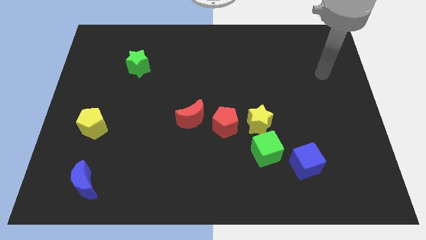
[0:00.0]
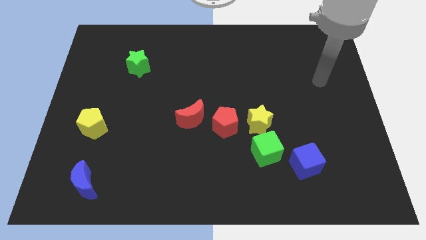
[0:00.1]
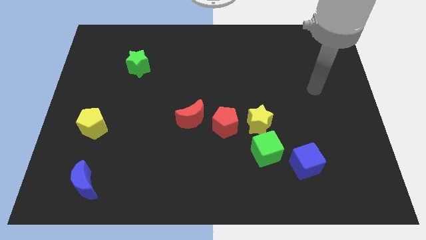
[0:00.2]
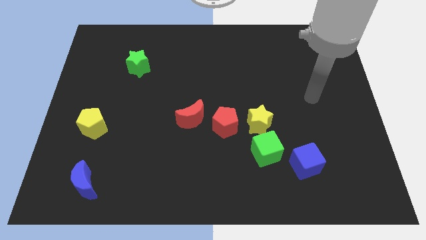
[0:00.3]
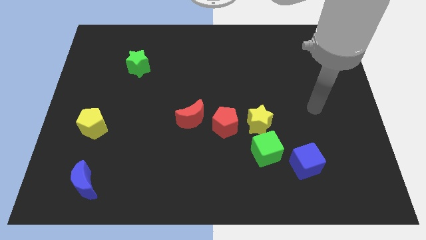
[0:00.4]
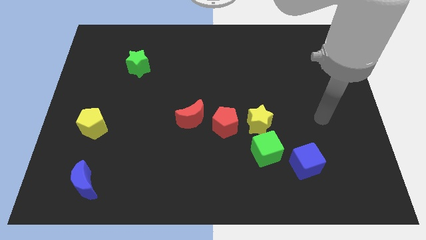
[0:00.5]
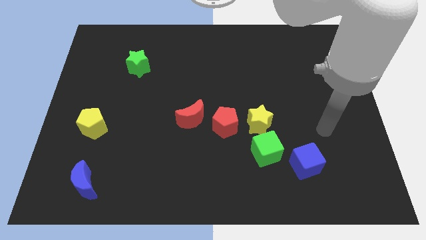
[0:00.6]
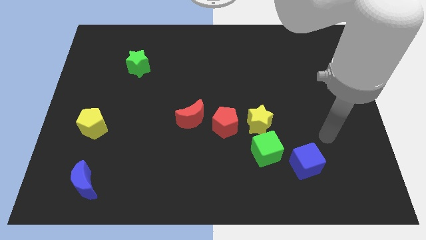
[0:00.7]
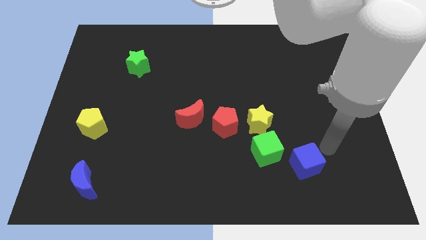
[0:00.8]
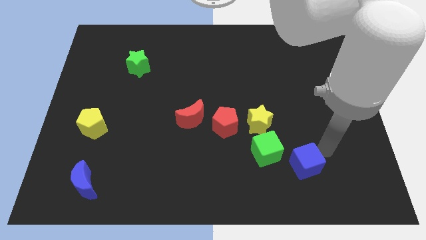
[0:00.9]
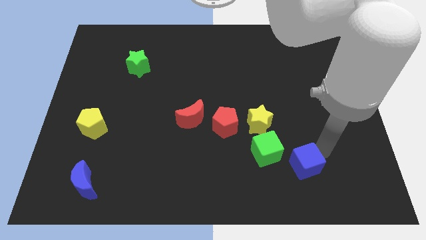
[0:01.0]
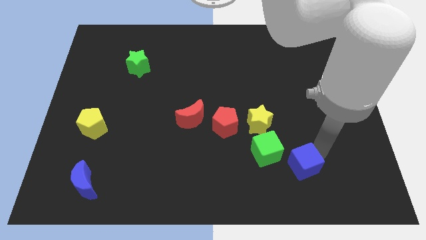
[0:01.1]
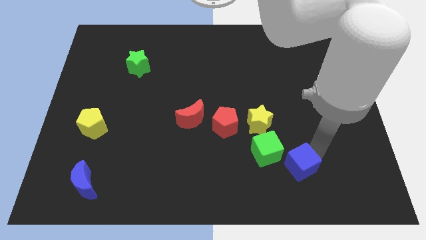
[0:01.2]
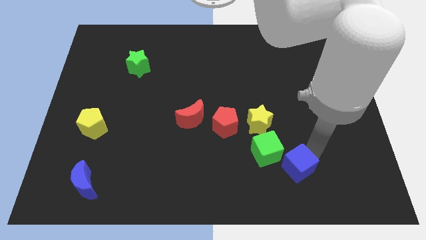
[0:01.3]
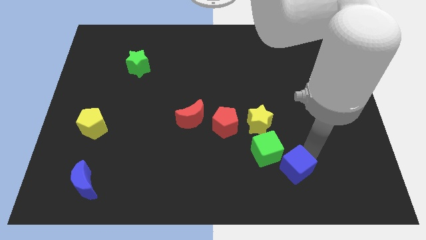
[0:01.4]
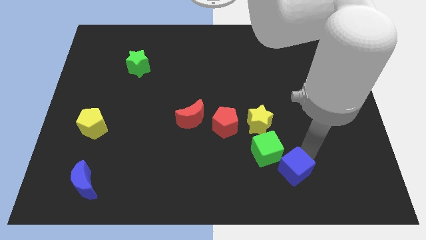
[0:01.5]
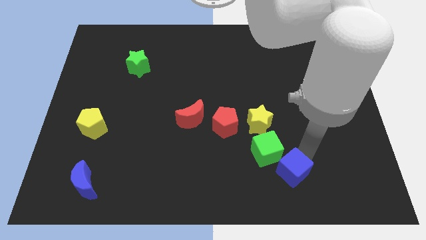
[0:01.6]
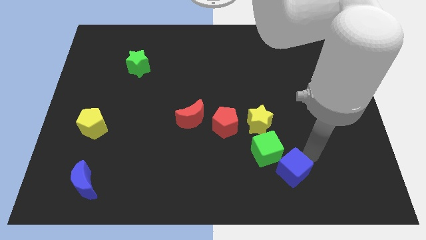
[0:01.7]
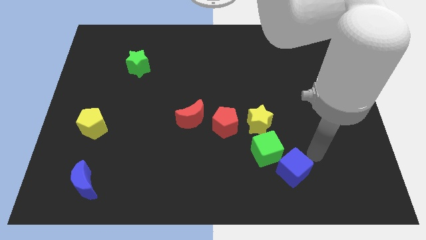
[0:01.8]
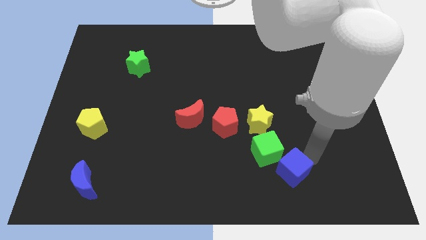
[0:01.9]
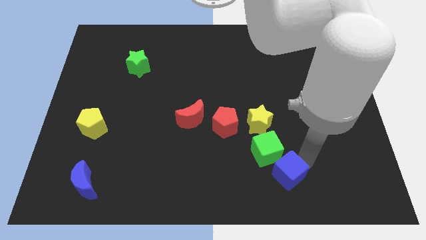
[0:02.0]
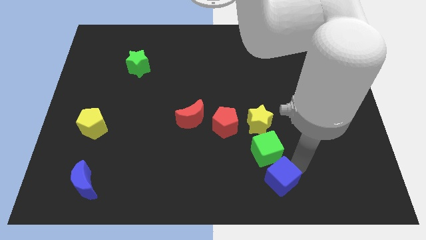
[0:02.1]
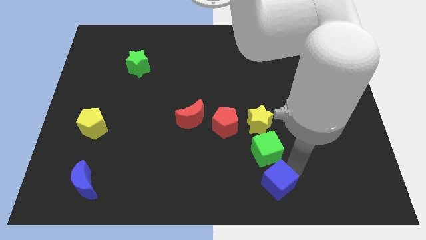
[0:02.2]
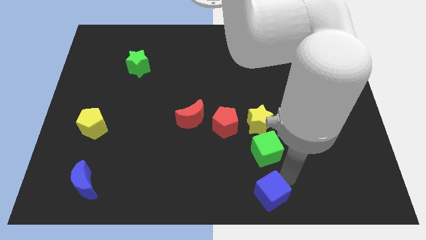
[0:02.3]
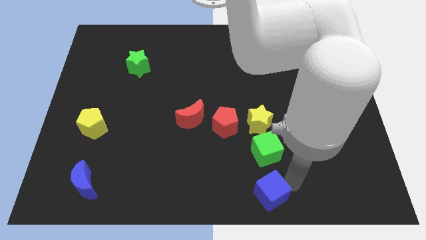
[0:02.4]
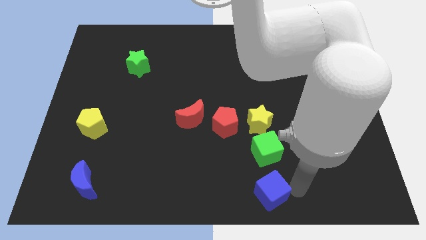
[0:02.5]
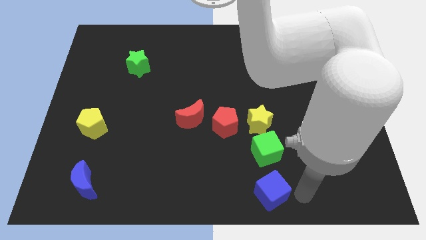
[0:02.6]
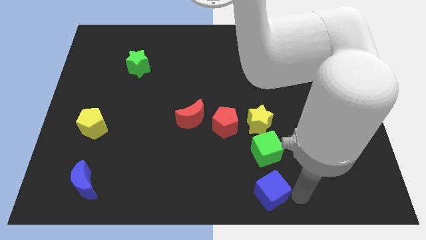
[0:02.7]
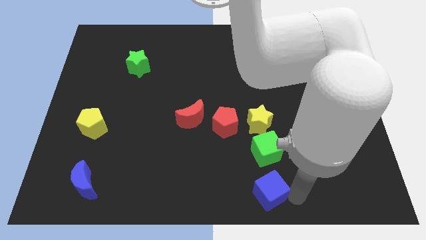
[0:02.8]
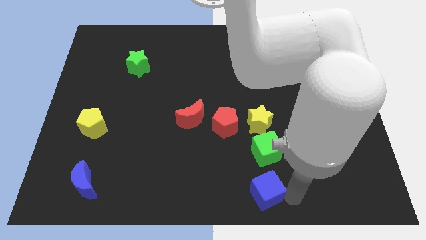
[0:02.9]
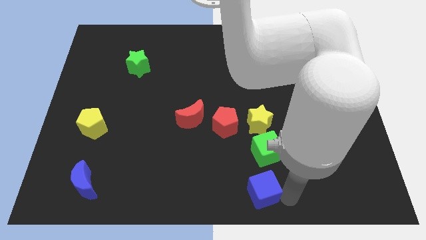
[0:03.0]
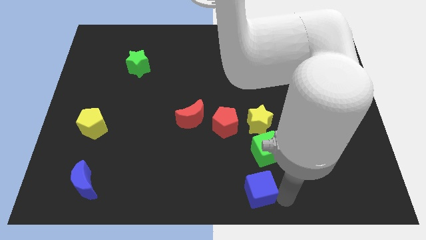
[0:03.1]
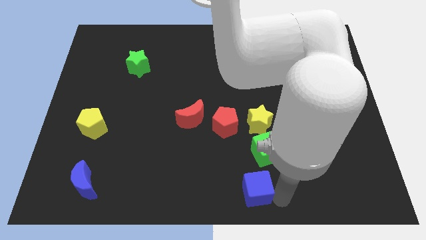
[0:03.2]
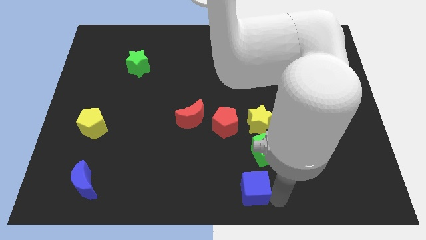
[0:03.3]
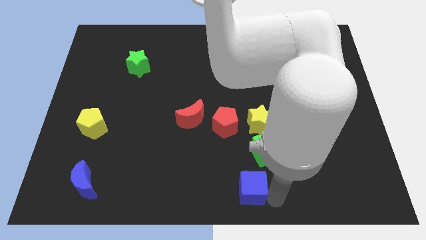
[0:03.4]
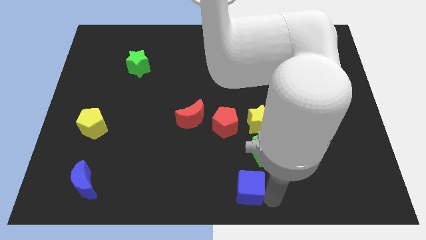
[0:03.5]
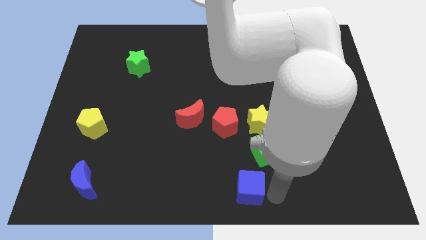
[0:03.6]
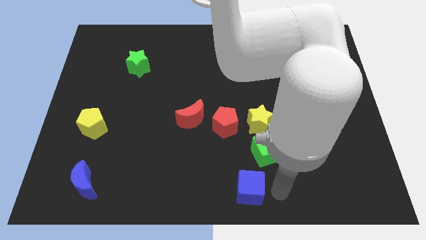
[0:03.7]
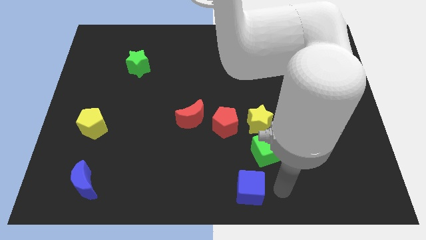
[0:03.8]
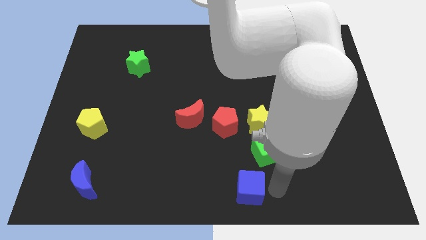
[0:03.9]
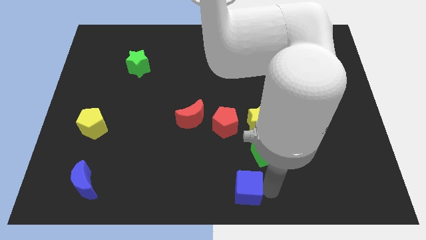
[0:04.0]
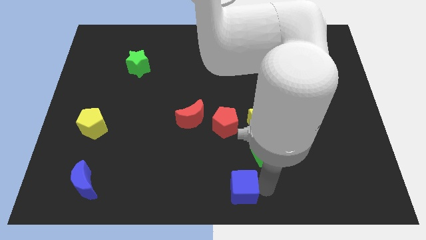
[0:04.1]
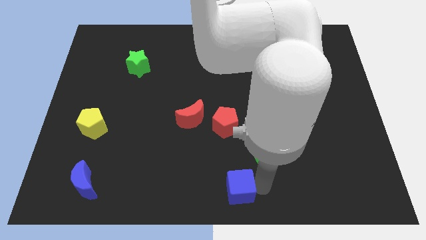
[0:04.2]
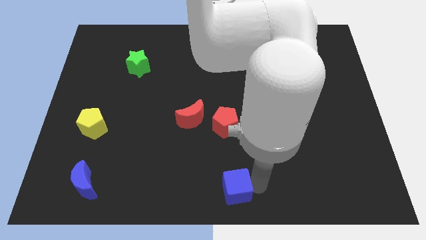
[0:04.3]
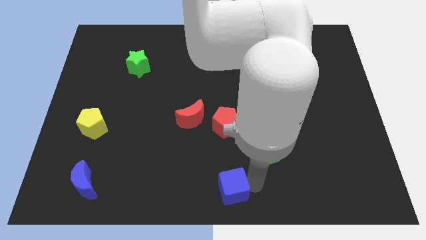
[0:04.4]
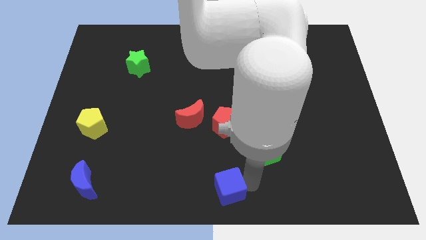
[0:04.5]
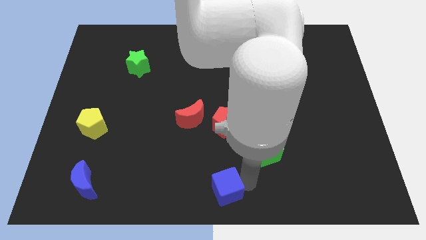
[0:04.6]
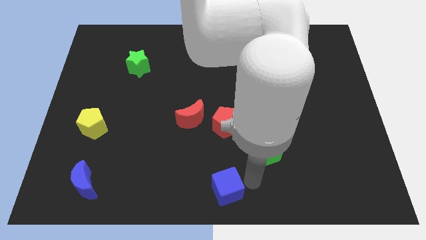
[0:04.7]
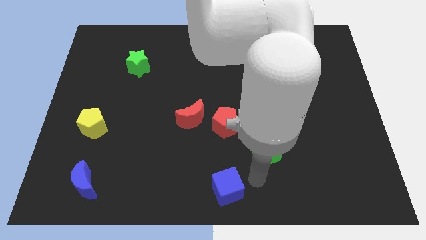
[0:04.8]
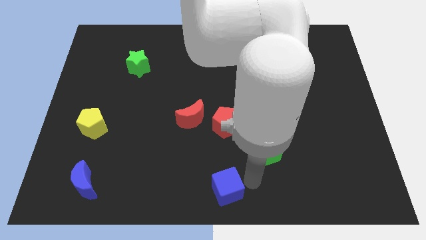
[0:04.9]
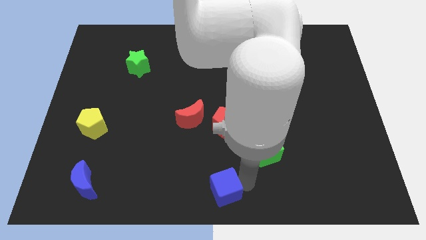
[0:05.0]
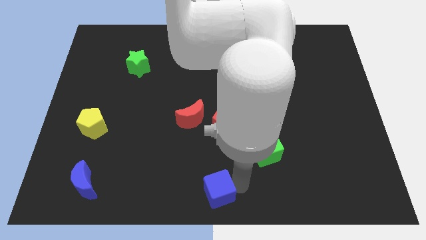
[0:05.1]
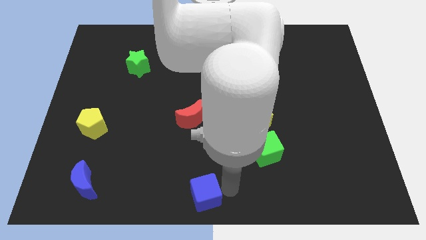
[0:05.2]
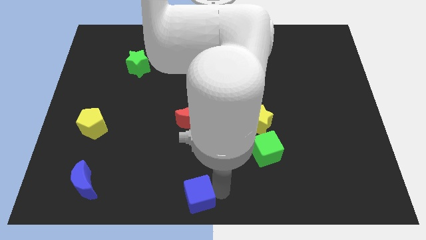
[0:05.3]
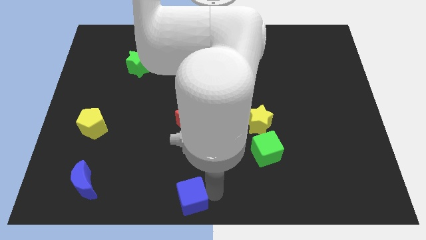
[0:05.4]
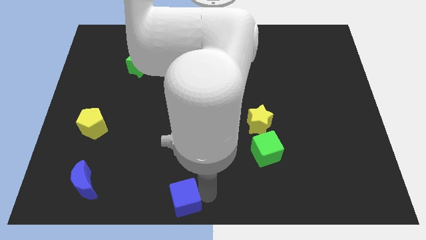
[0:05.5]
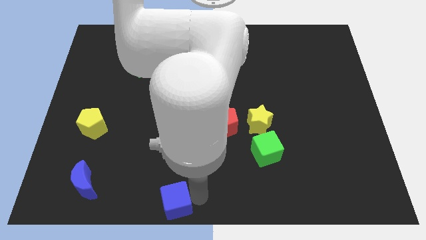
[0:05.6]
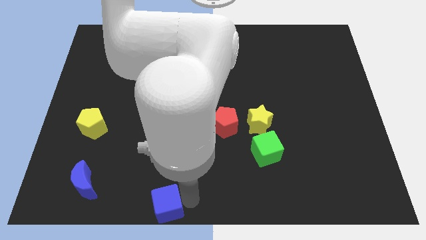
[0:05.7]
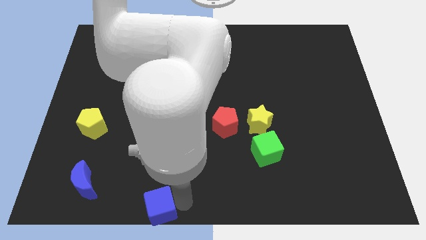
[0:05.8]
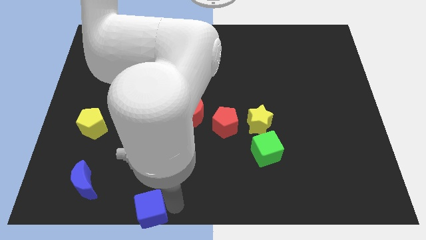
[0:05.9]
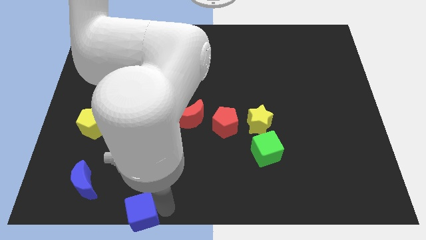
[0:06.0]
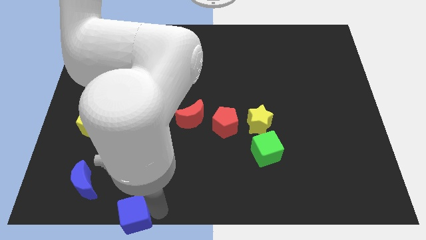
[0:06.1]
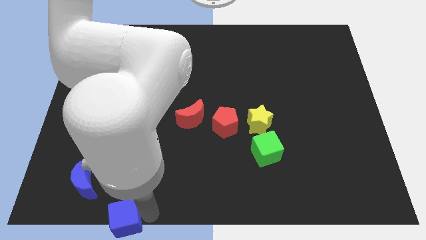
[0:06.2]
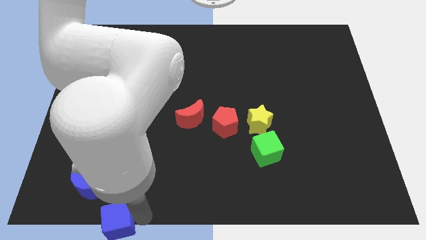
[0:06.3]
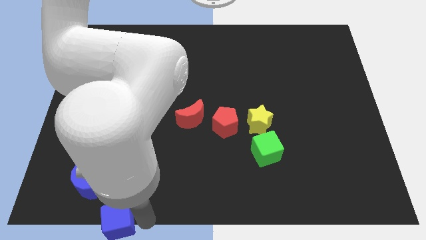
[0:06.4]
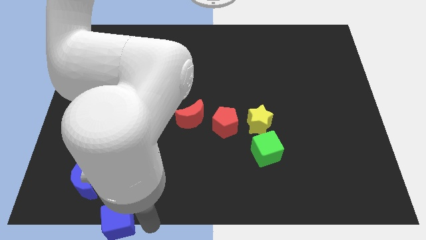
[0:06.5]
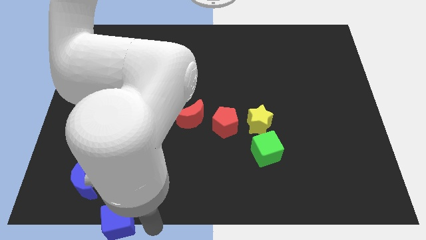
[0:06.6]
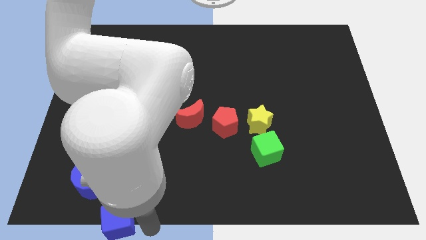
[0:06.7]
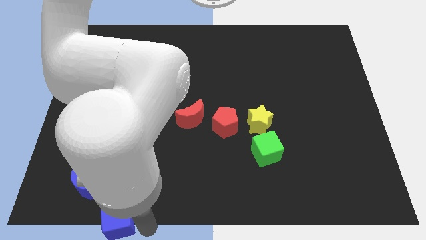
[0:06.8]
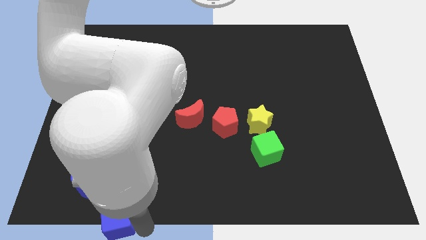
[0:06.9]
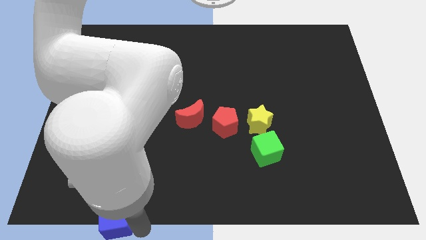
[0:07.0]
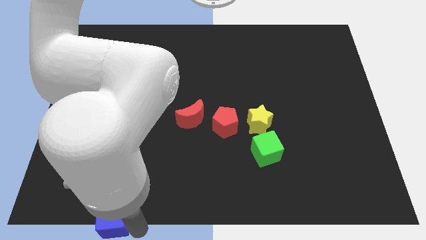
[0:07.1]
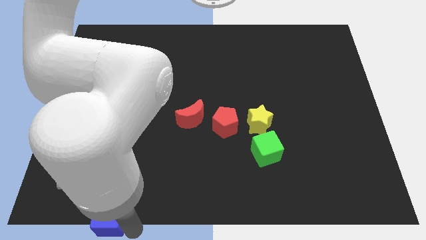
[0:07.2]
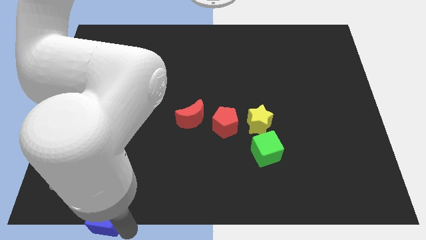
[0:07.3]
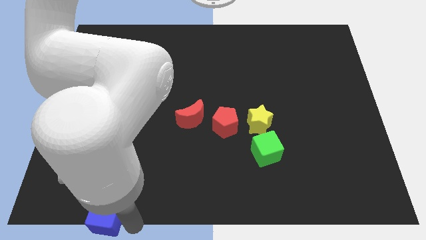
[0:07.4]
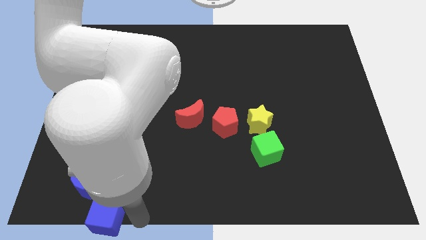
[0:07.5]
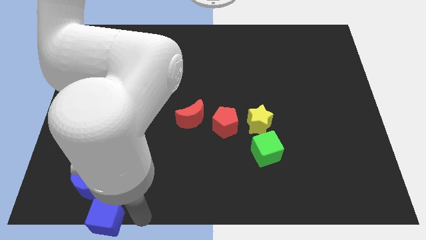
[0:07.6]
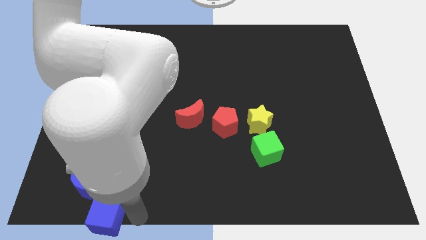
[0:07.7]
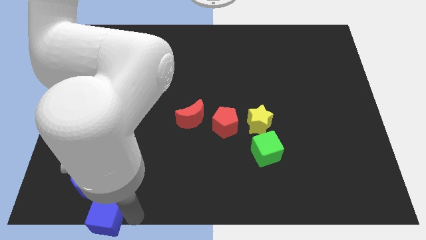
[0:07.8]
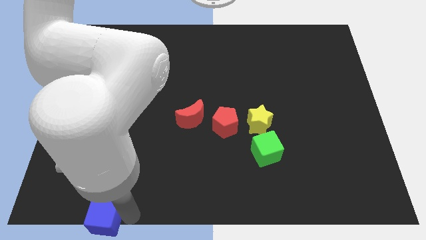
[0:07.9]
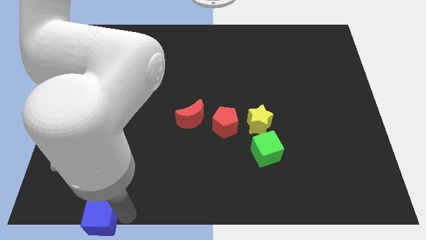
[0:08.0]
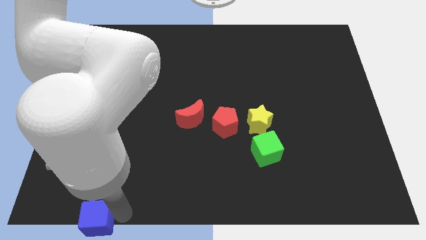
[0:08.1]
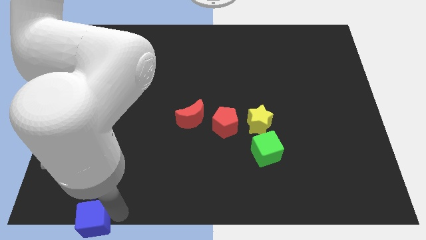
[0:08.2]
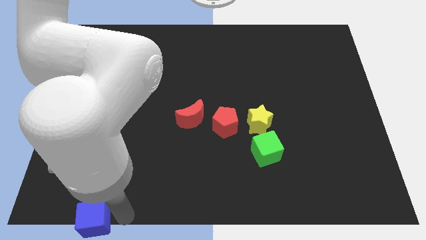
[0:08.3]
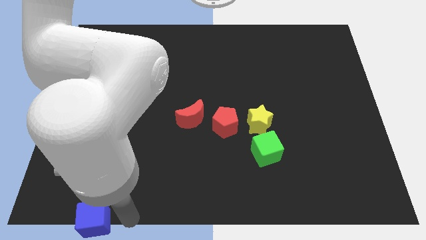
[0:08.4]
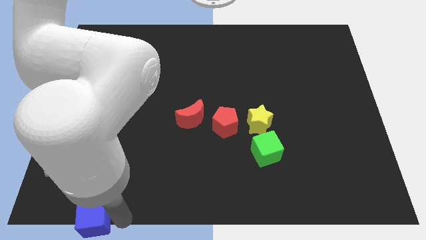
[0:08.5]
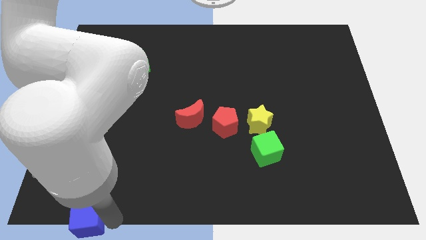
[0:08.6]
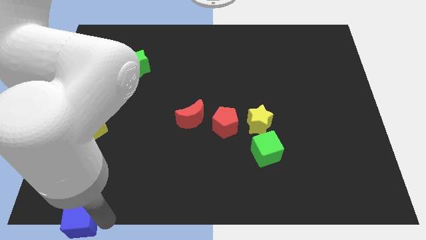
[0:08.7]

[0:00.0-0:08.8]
push the blue cube to the bottom left
